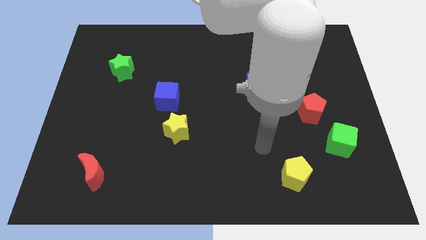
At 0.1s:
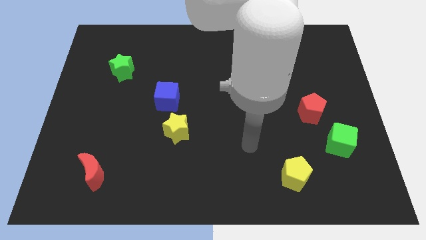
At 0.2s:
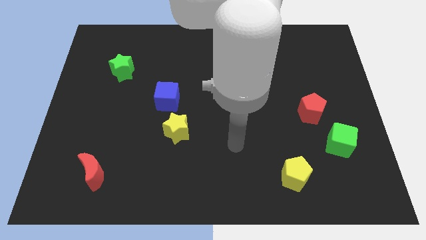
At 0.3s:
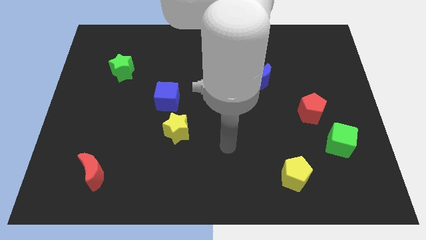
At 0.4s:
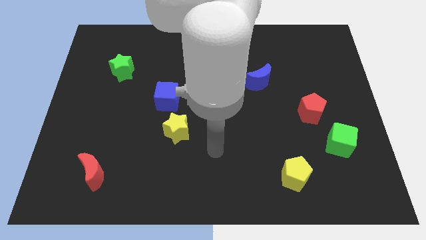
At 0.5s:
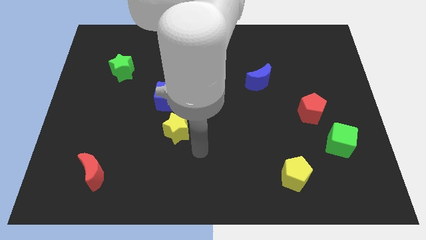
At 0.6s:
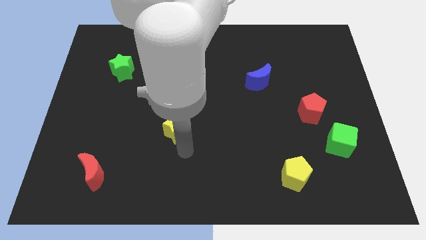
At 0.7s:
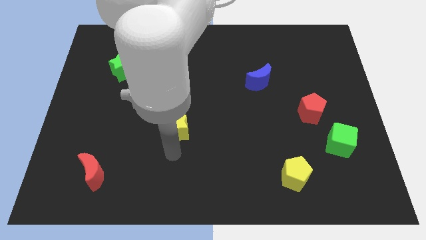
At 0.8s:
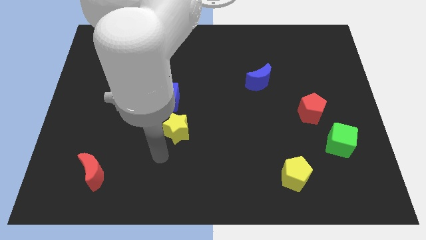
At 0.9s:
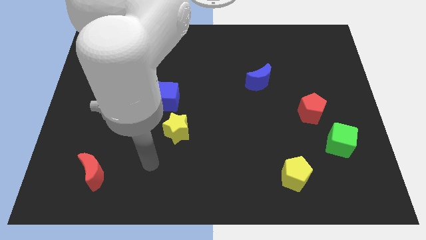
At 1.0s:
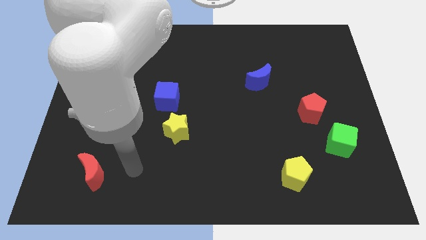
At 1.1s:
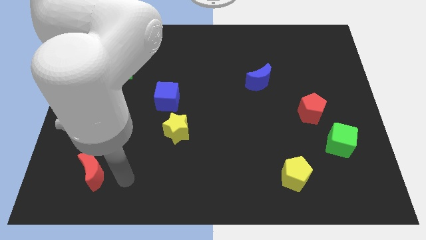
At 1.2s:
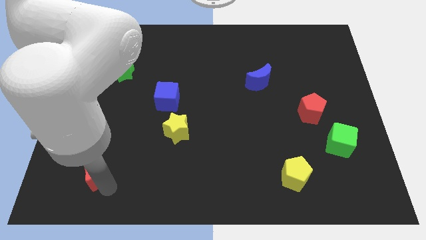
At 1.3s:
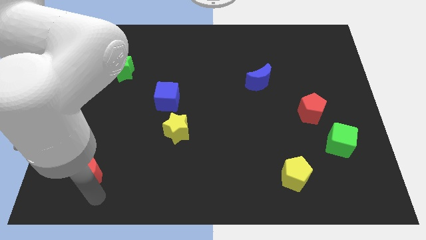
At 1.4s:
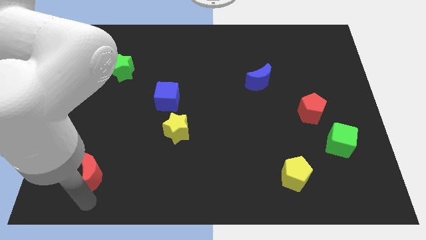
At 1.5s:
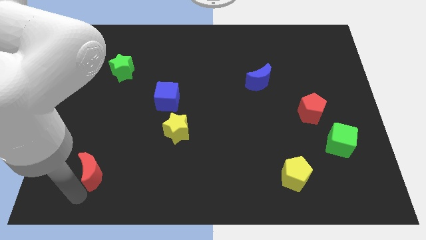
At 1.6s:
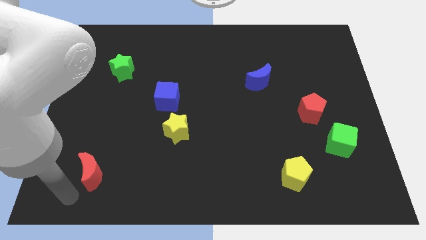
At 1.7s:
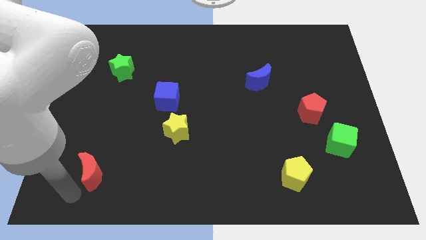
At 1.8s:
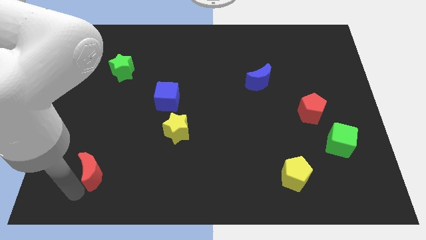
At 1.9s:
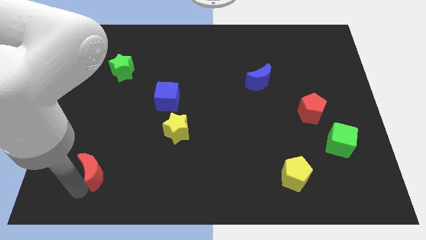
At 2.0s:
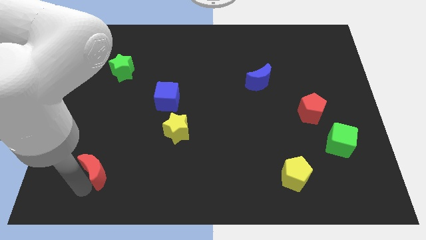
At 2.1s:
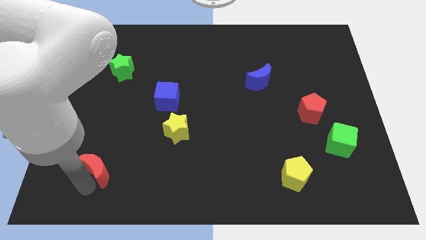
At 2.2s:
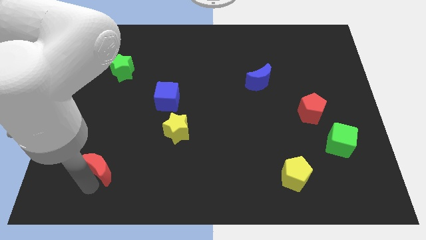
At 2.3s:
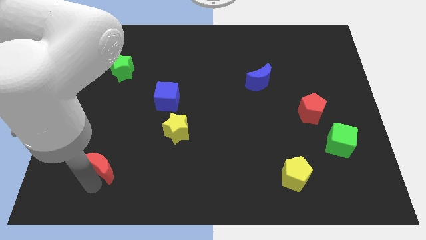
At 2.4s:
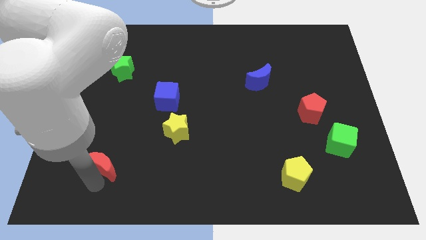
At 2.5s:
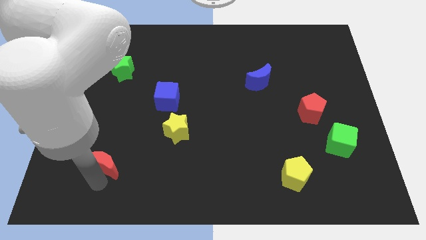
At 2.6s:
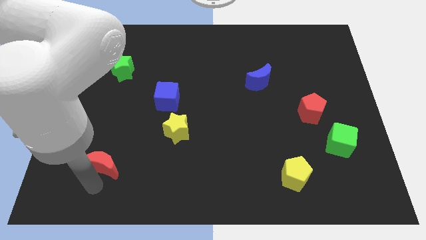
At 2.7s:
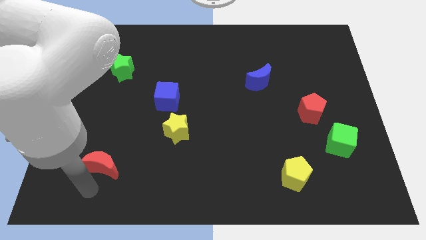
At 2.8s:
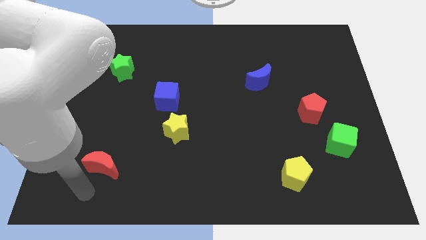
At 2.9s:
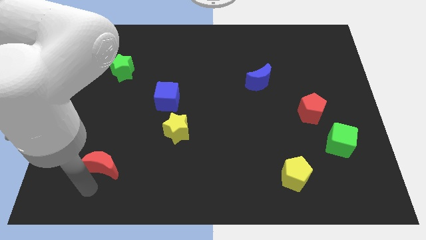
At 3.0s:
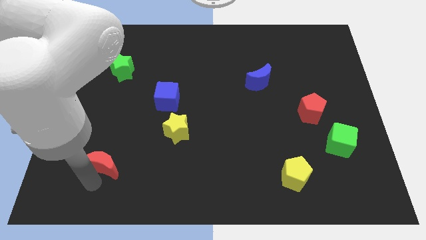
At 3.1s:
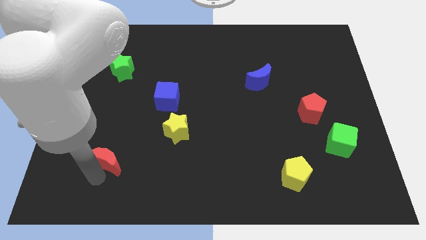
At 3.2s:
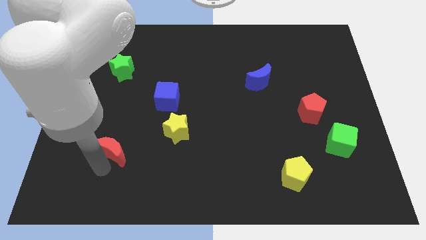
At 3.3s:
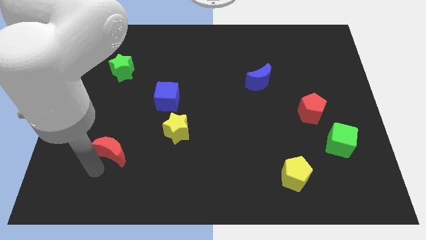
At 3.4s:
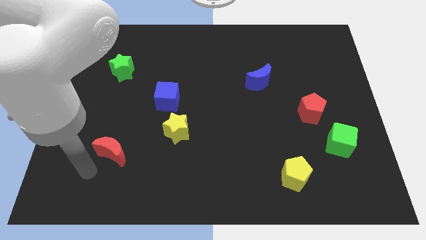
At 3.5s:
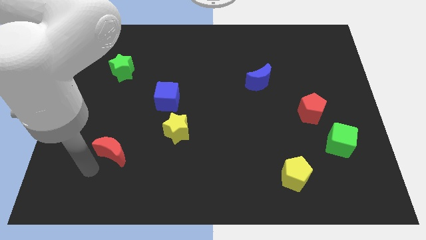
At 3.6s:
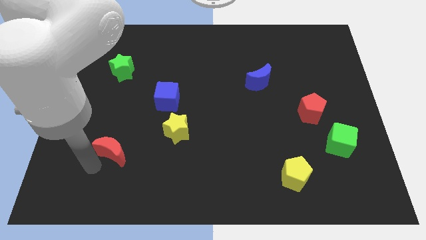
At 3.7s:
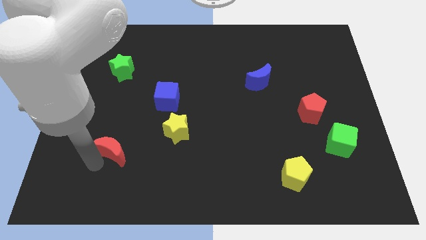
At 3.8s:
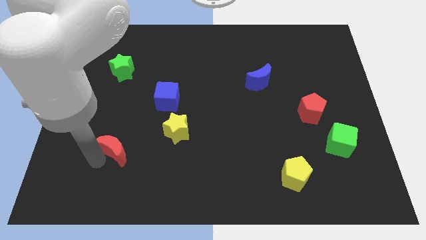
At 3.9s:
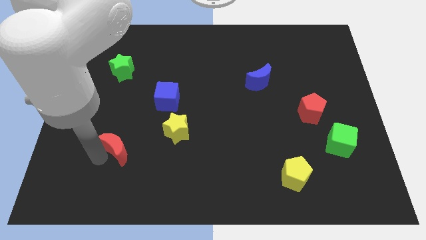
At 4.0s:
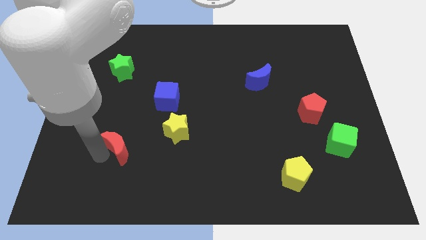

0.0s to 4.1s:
push the red moon a little up and then to the right

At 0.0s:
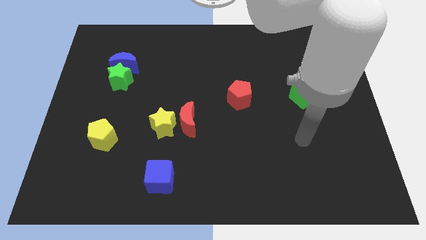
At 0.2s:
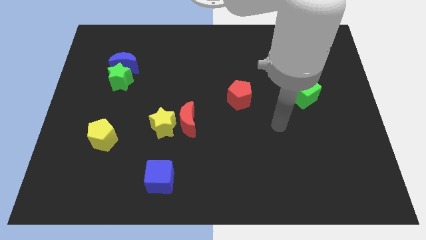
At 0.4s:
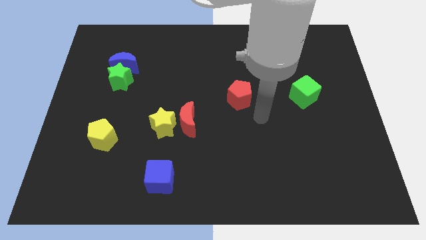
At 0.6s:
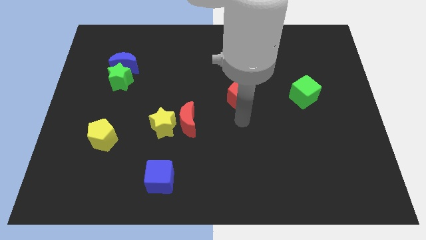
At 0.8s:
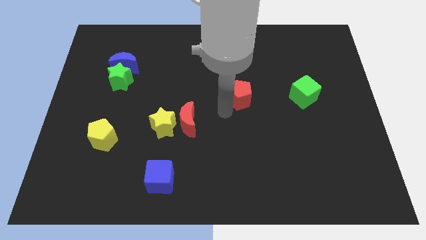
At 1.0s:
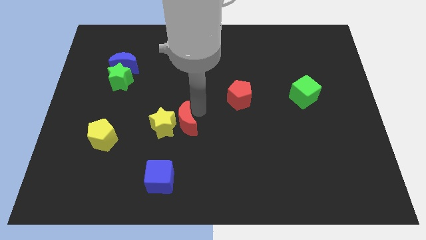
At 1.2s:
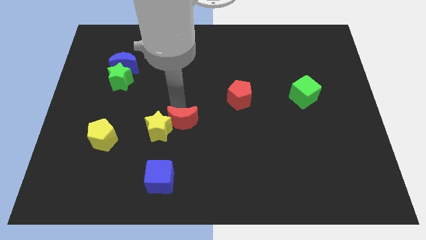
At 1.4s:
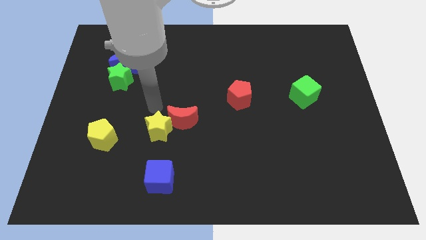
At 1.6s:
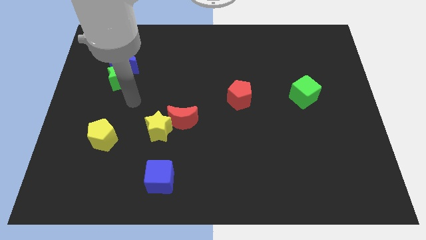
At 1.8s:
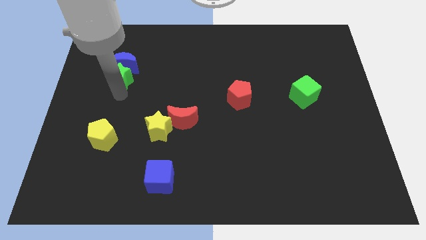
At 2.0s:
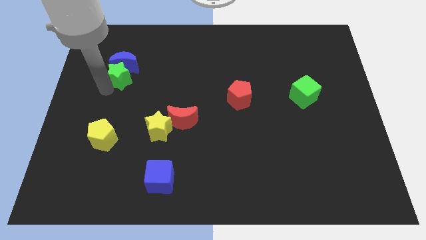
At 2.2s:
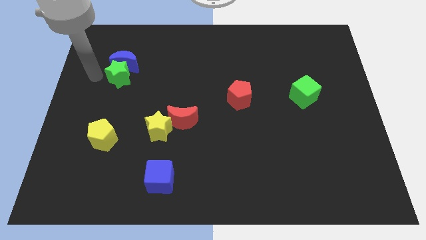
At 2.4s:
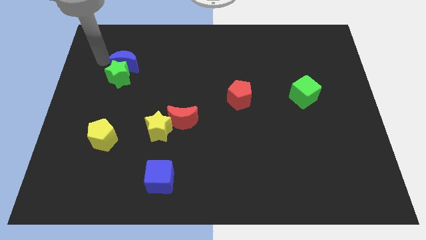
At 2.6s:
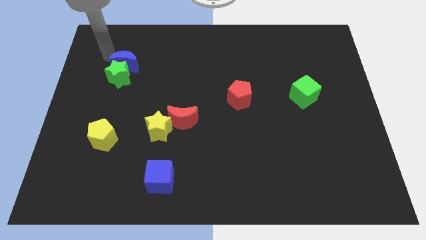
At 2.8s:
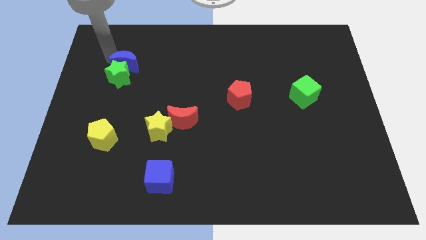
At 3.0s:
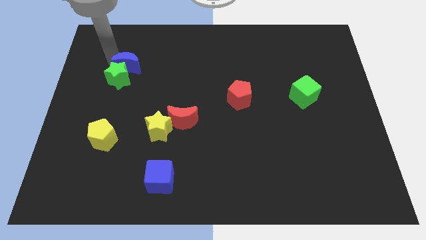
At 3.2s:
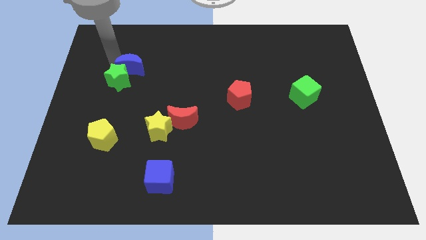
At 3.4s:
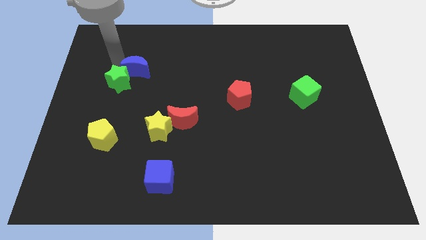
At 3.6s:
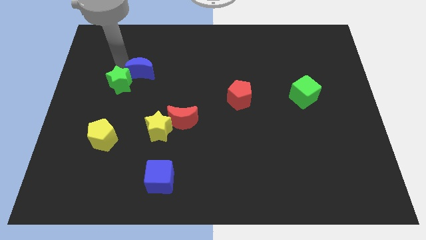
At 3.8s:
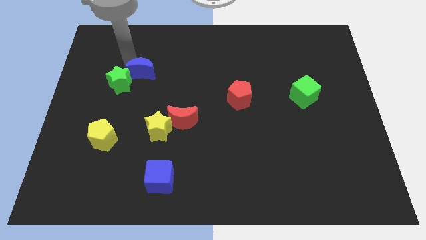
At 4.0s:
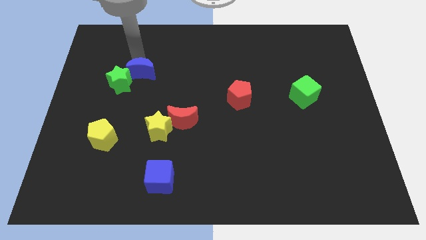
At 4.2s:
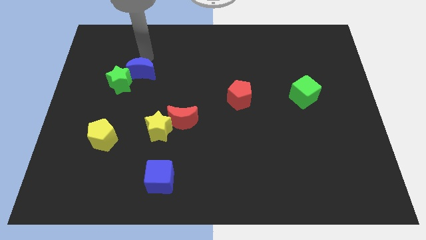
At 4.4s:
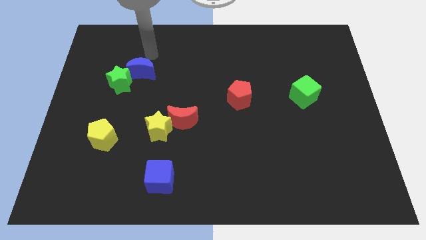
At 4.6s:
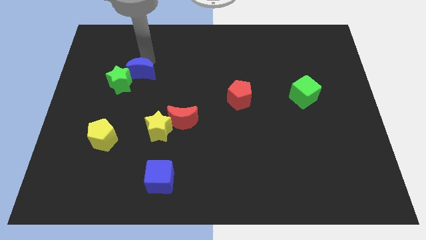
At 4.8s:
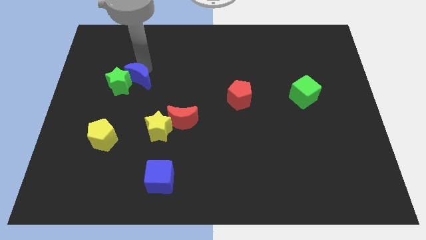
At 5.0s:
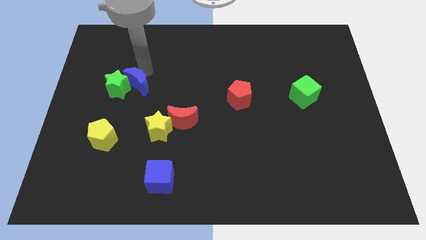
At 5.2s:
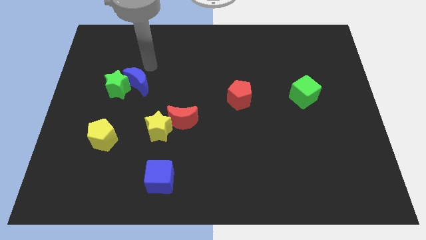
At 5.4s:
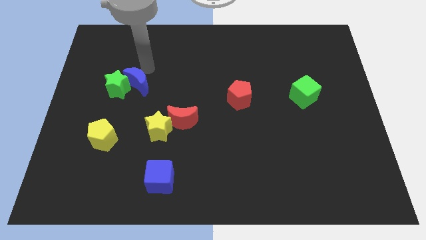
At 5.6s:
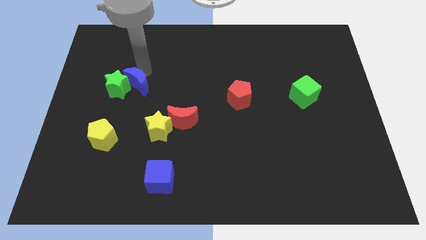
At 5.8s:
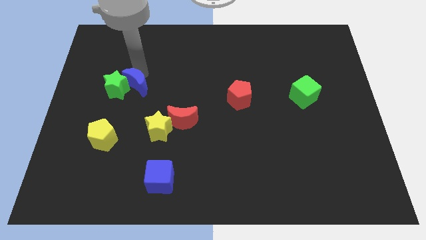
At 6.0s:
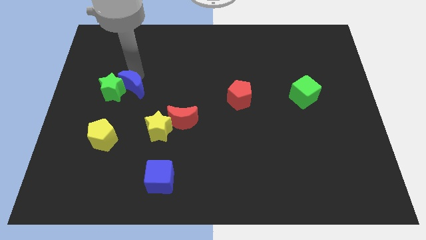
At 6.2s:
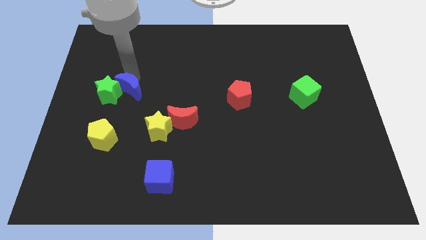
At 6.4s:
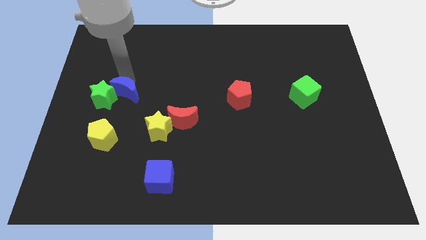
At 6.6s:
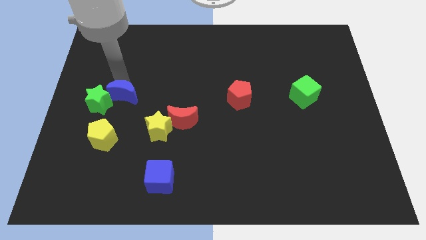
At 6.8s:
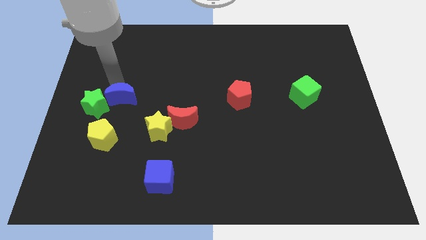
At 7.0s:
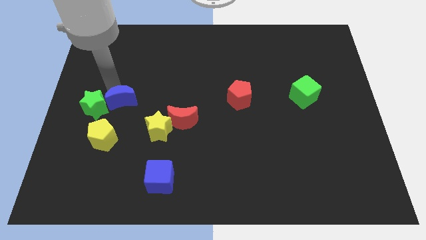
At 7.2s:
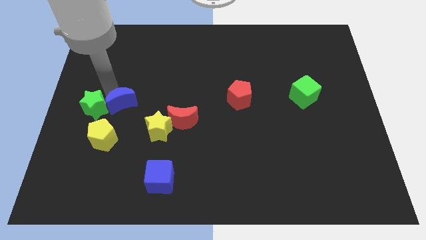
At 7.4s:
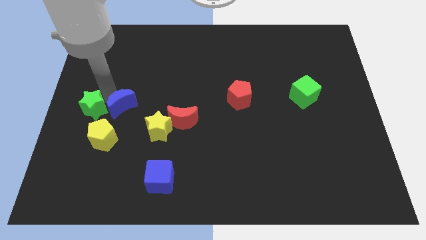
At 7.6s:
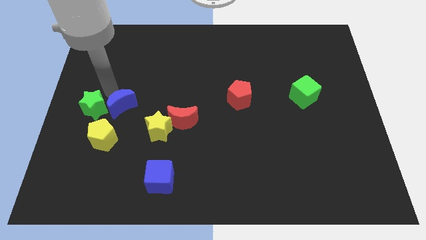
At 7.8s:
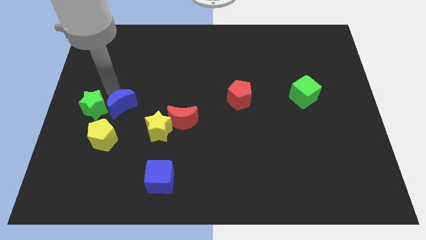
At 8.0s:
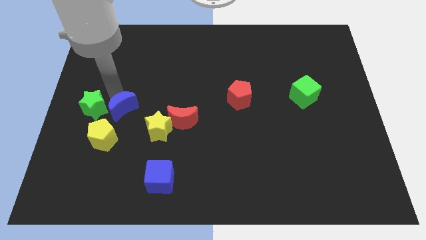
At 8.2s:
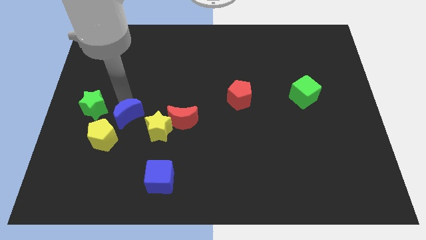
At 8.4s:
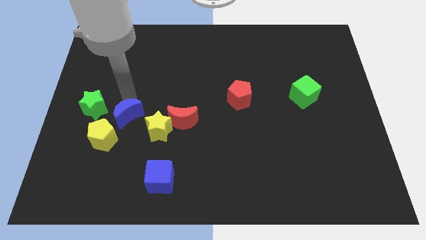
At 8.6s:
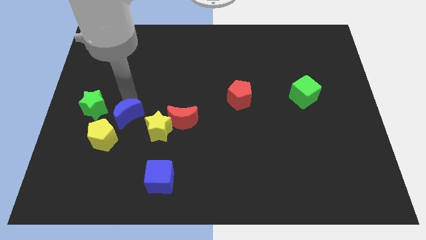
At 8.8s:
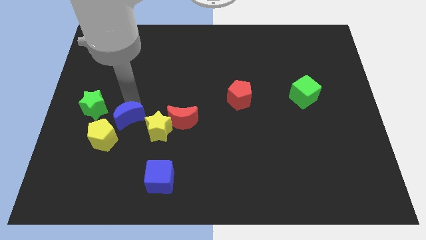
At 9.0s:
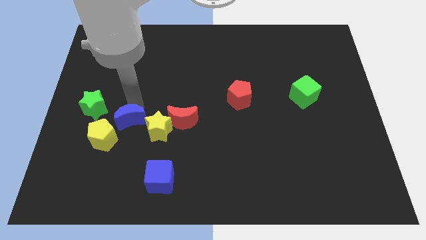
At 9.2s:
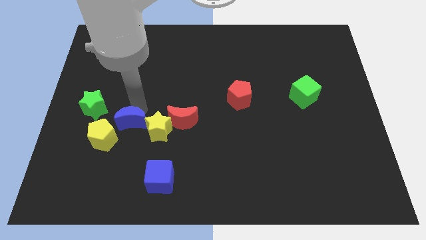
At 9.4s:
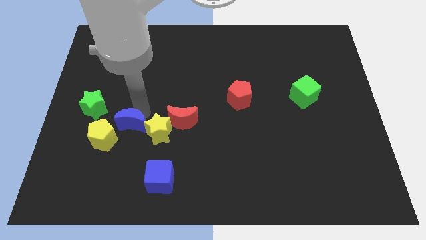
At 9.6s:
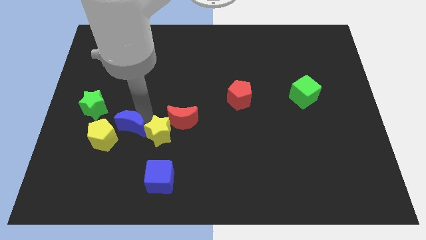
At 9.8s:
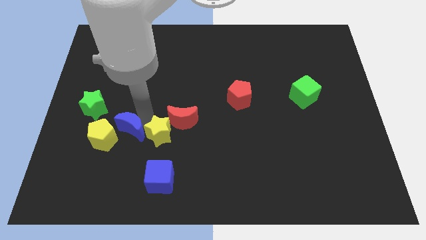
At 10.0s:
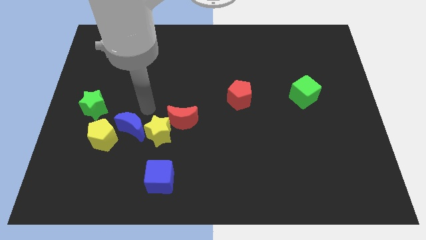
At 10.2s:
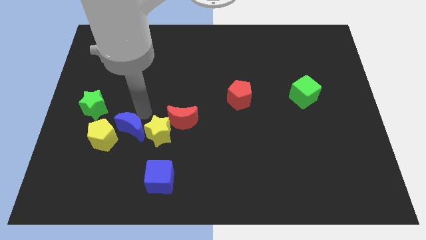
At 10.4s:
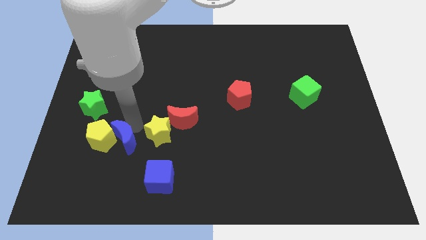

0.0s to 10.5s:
slide the blue moon down
